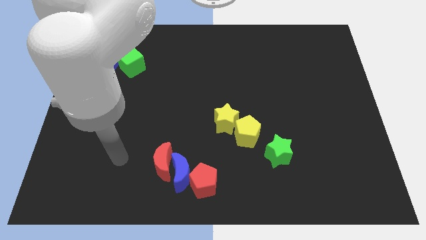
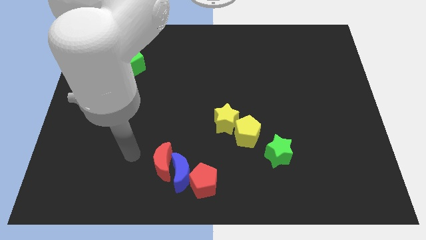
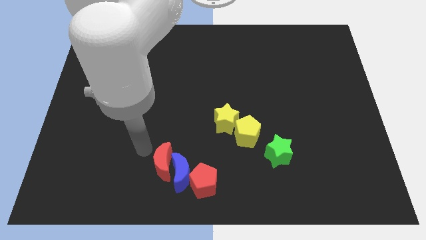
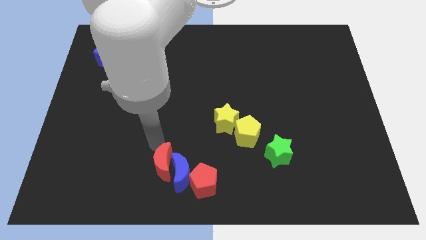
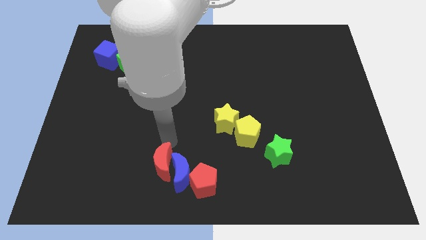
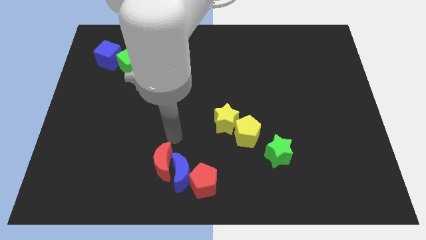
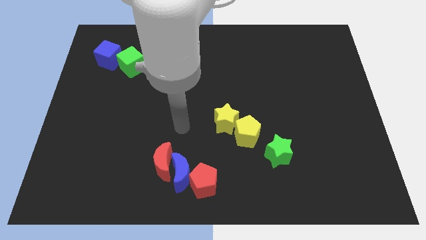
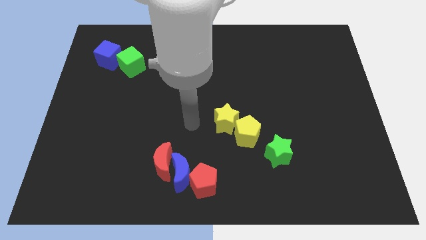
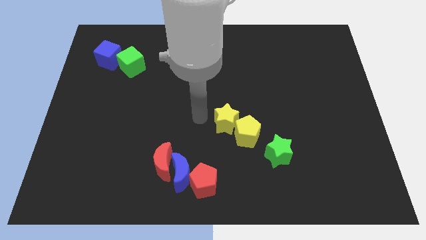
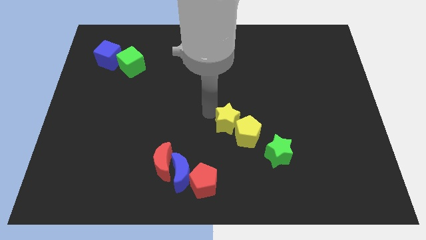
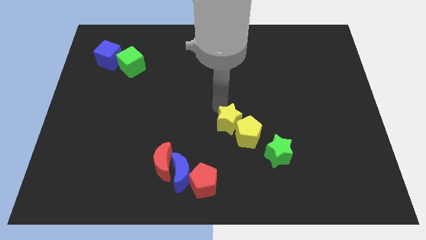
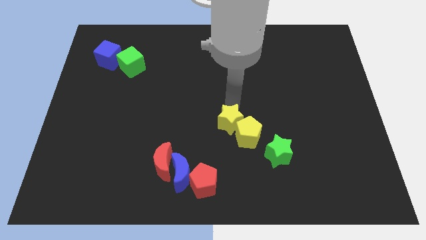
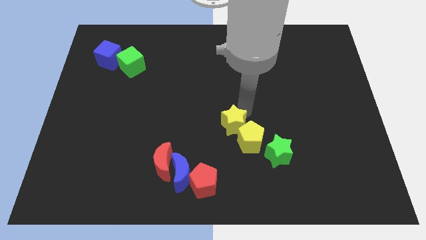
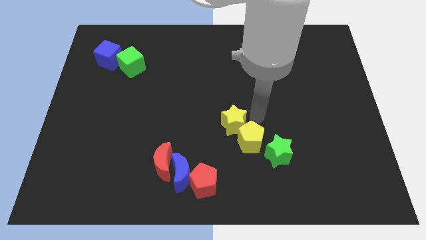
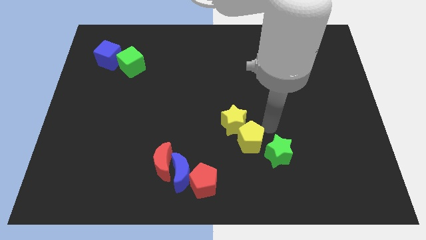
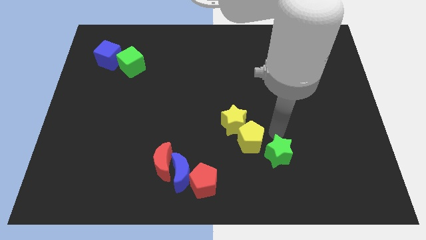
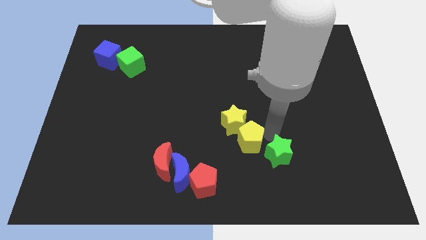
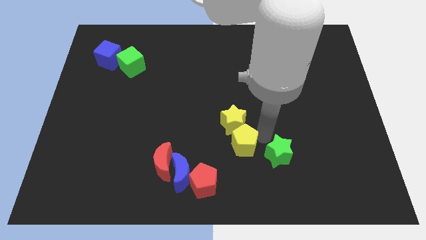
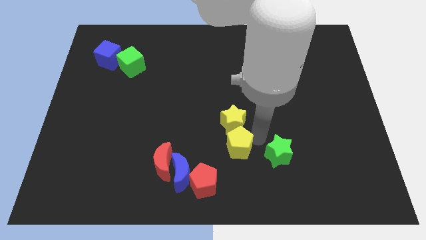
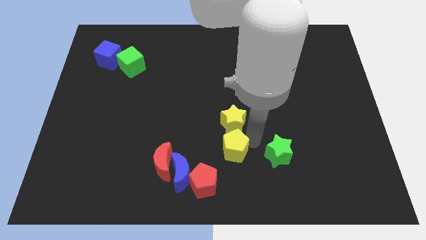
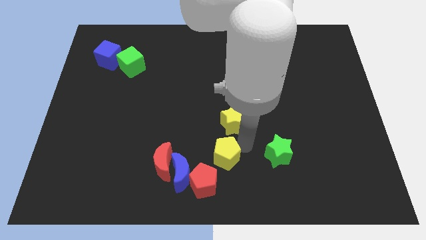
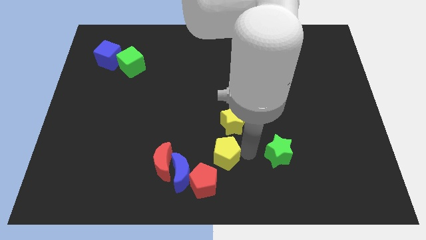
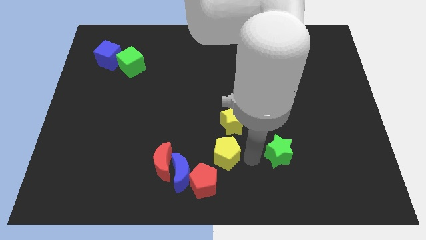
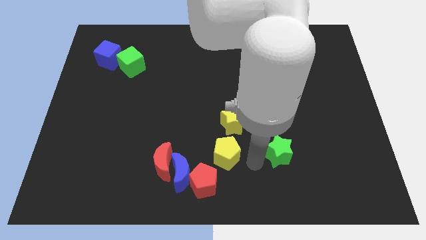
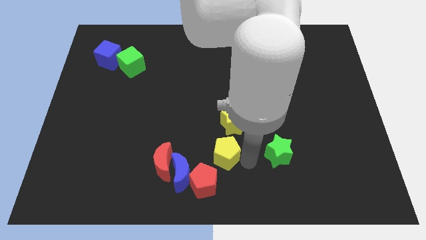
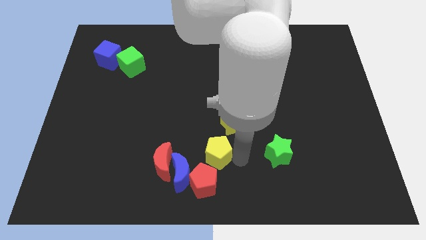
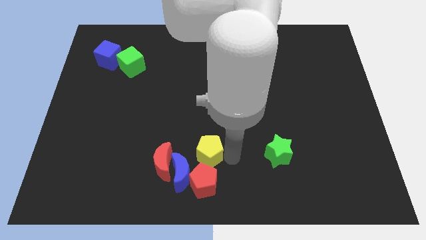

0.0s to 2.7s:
push the yellow pentagon to the left a little

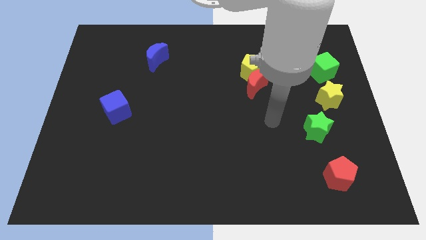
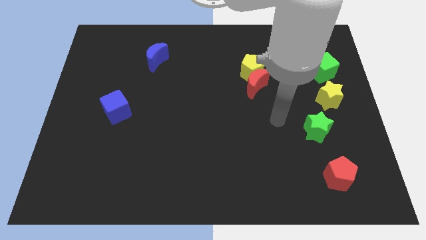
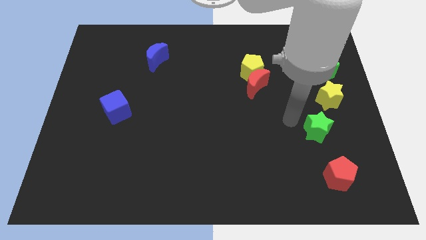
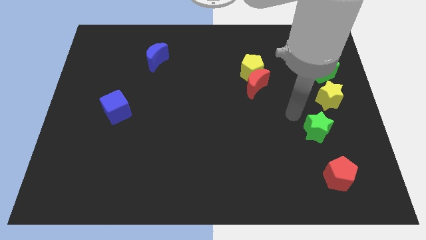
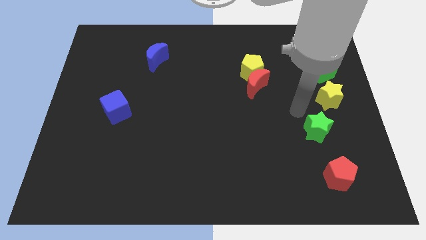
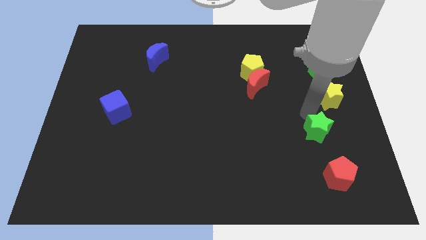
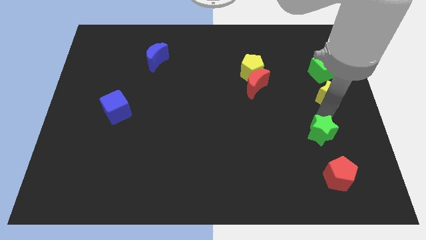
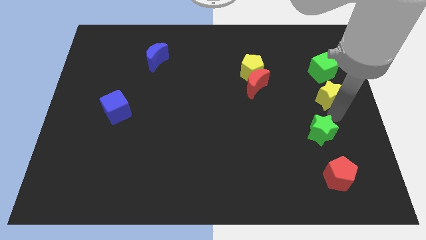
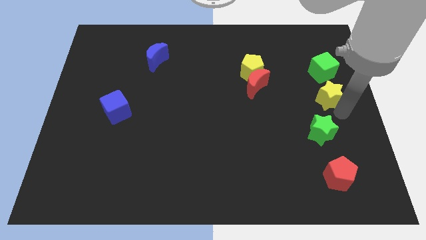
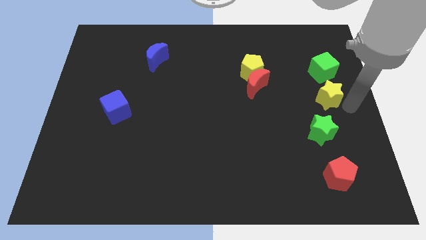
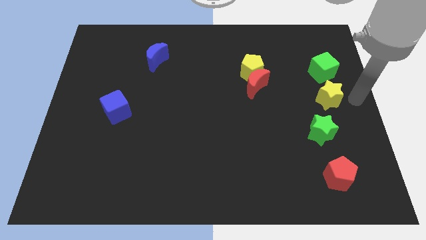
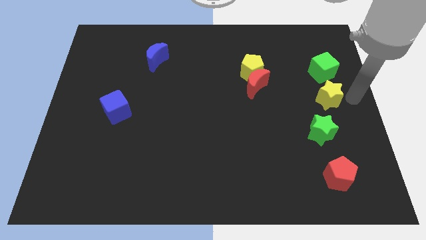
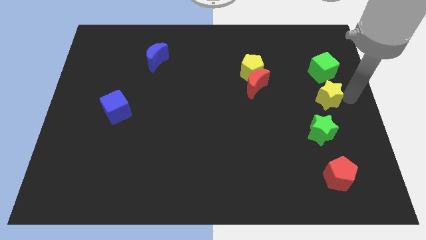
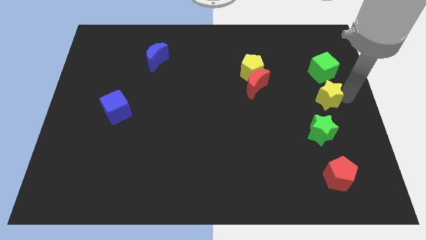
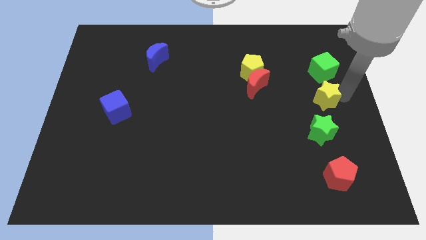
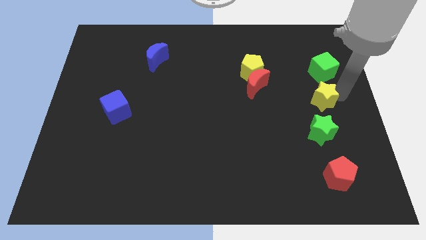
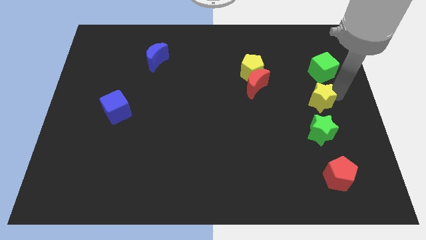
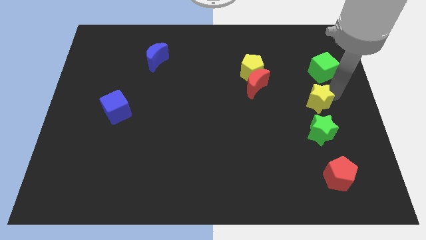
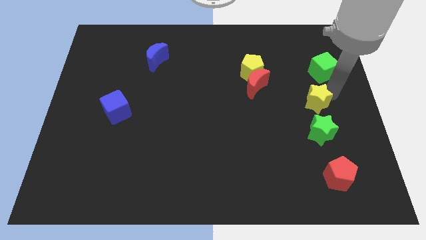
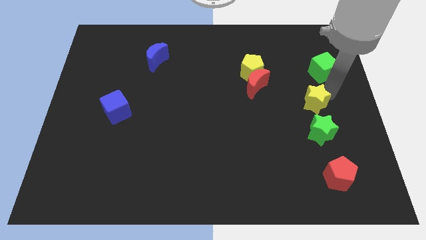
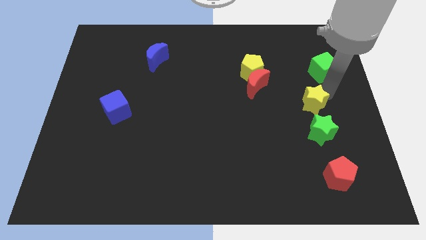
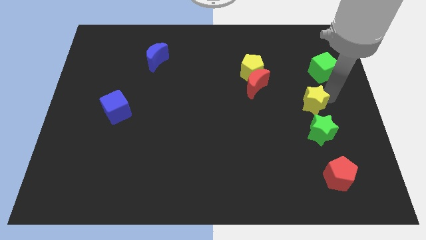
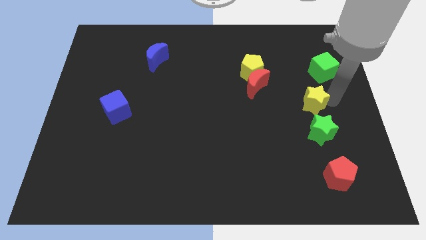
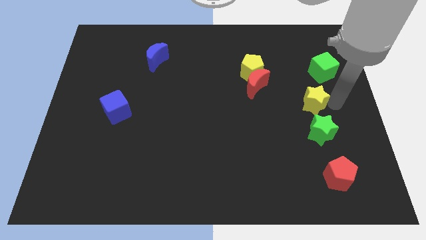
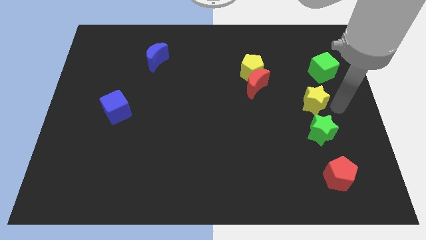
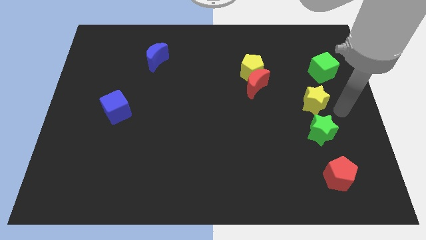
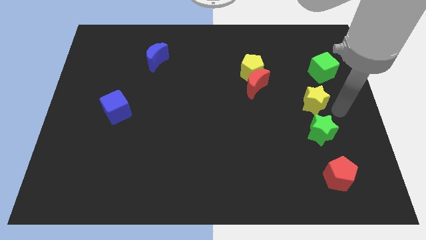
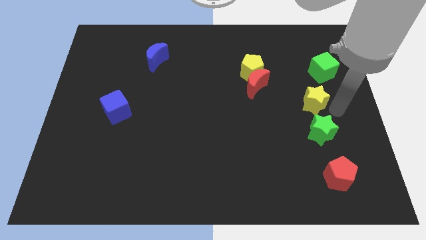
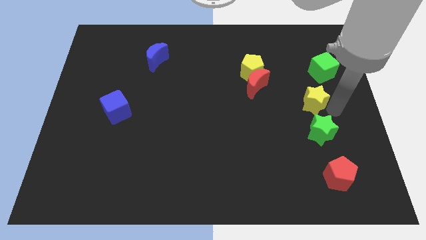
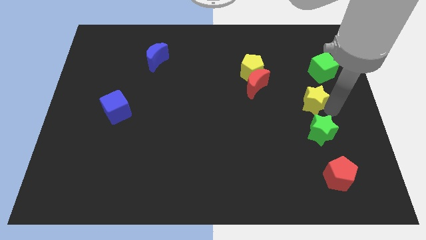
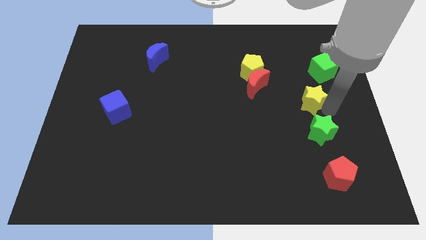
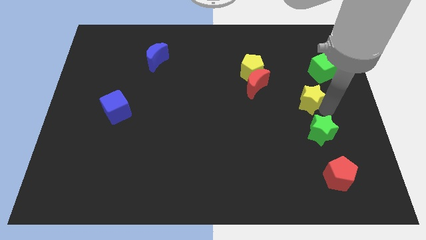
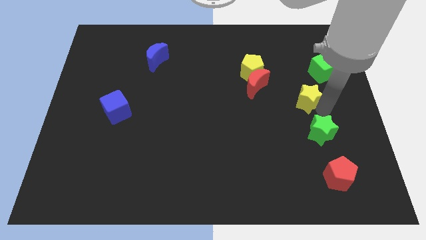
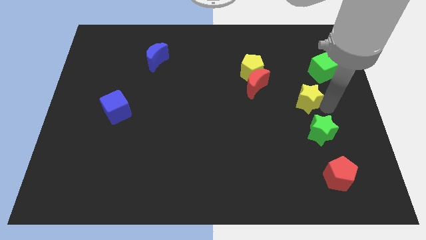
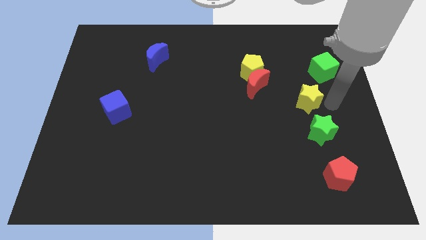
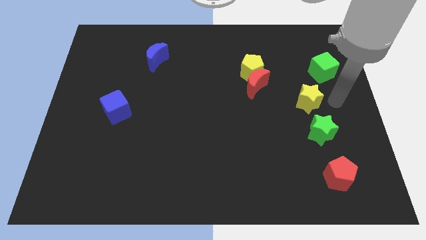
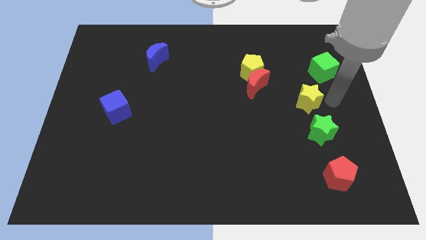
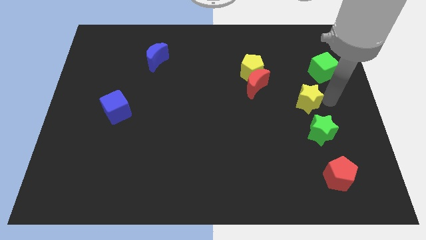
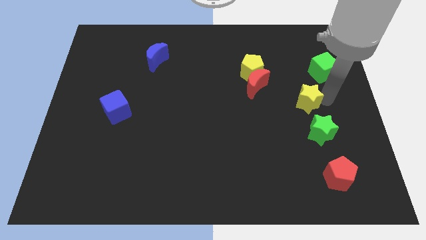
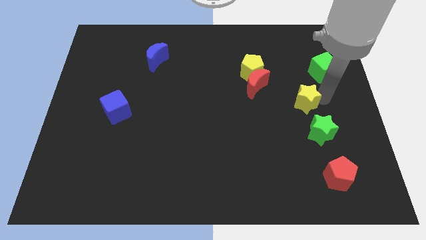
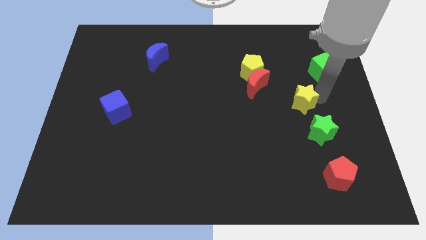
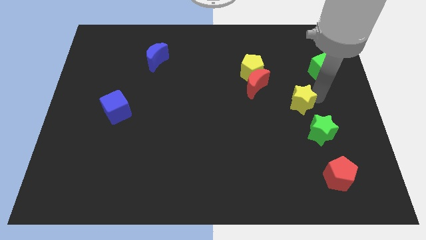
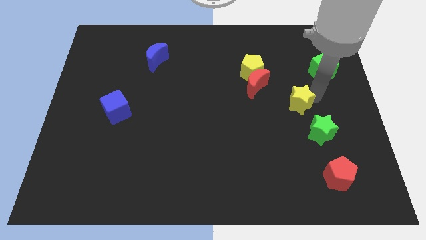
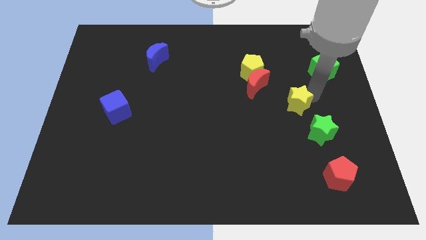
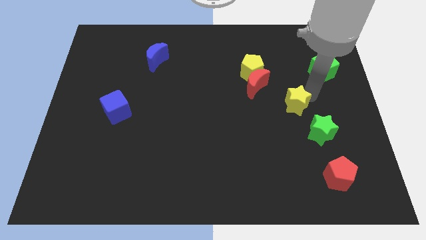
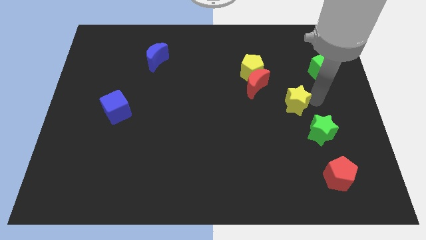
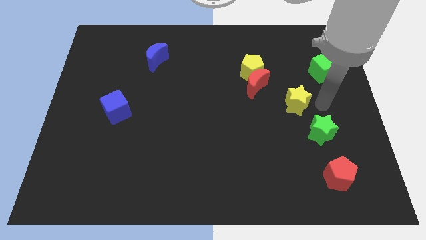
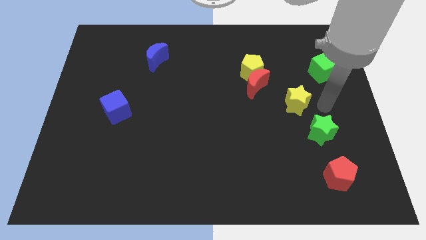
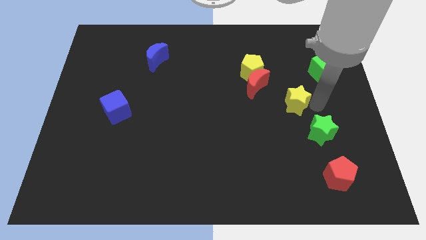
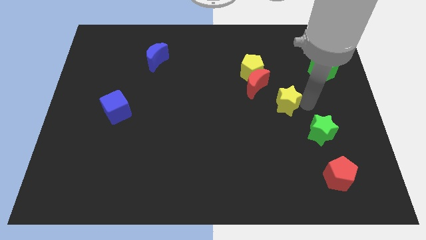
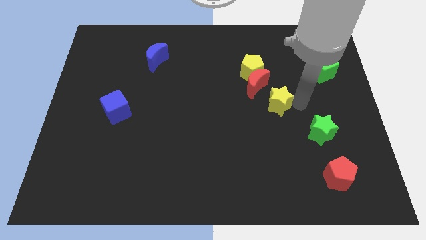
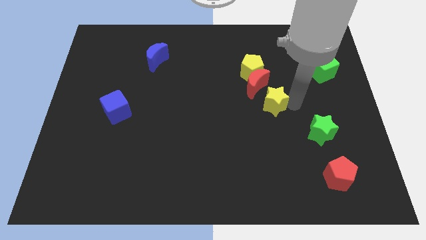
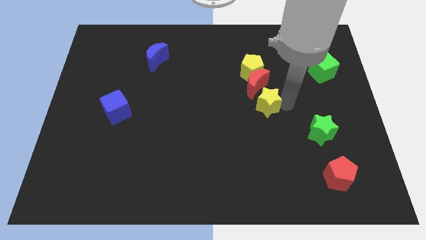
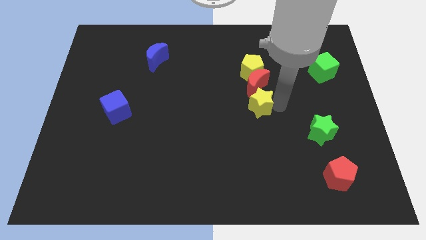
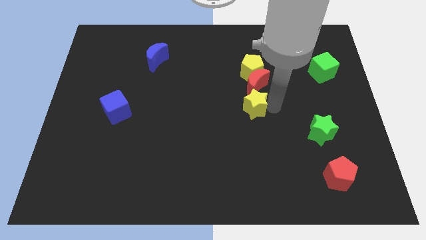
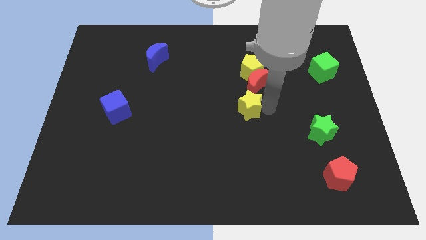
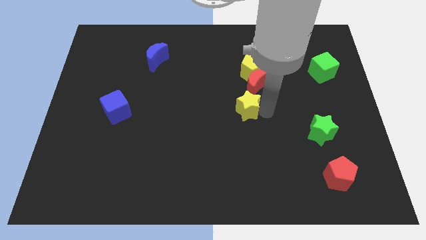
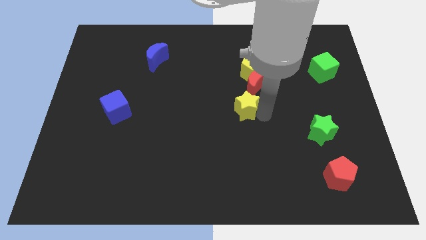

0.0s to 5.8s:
push the yellow star to the left
